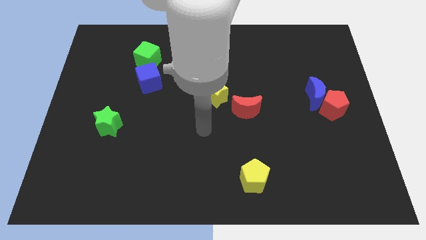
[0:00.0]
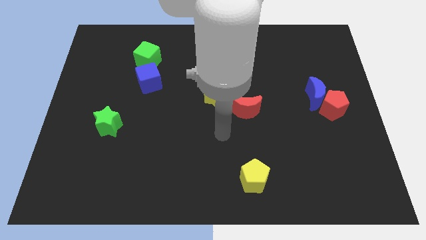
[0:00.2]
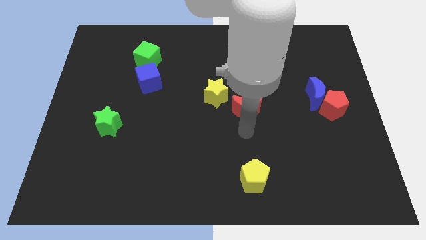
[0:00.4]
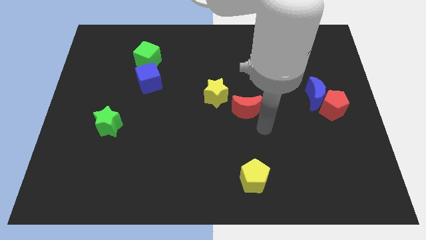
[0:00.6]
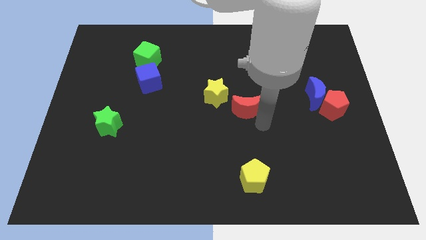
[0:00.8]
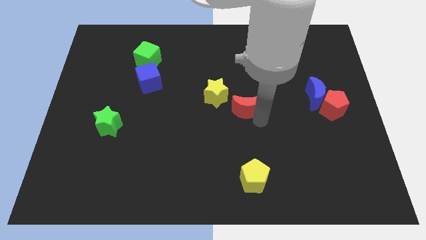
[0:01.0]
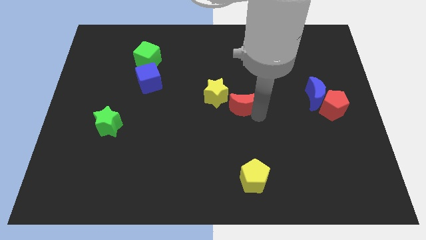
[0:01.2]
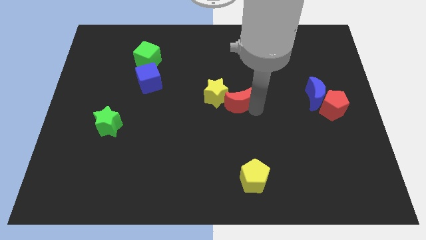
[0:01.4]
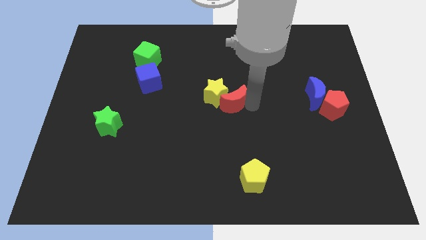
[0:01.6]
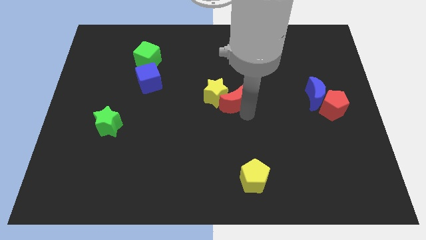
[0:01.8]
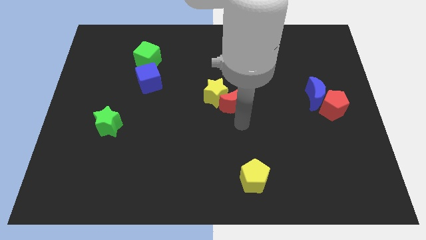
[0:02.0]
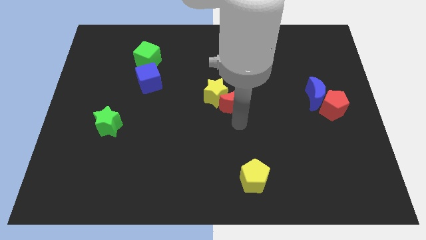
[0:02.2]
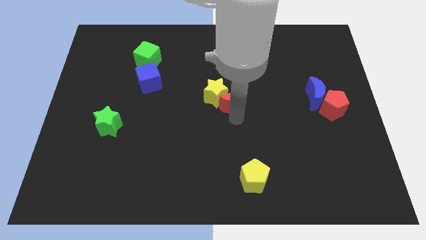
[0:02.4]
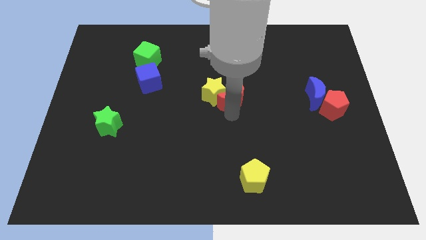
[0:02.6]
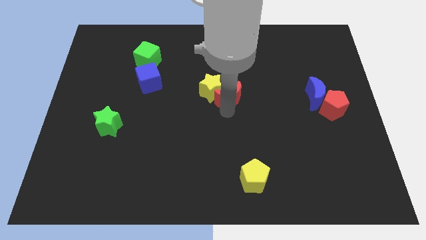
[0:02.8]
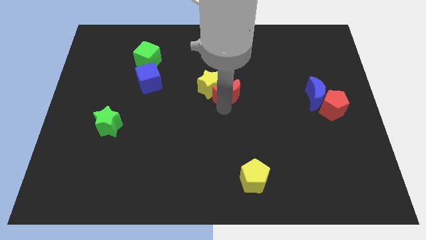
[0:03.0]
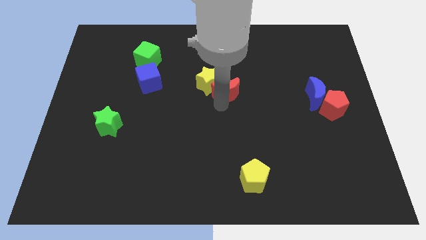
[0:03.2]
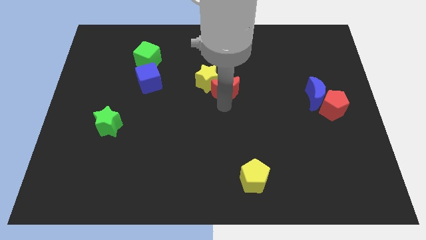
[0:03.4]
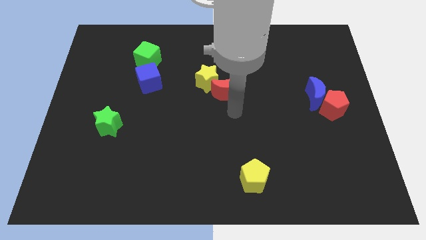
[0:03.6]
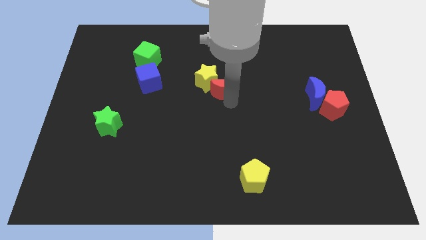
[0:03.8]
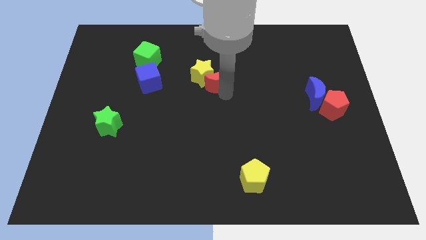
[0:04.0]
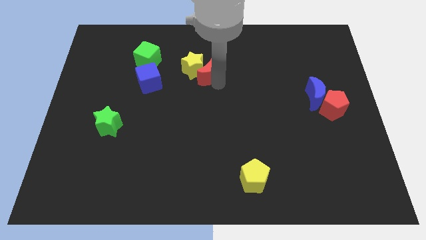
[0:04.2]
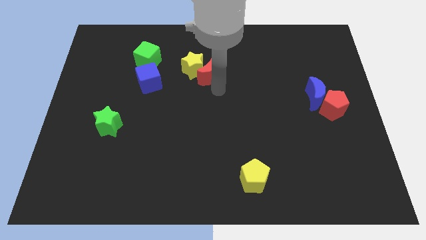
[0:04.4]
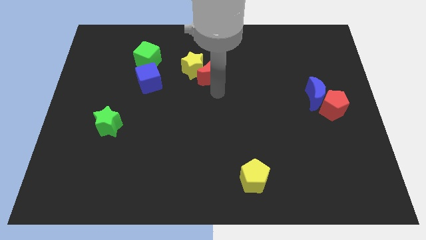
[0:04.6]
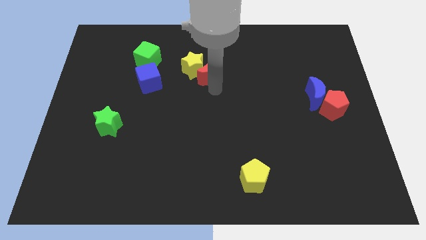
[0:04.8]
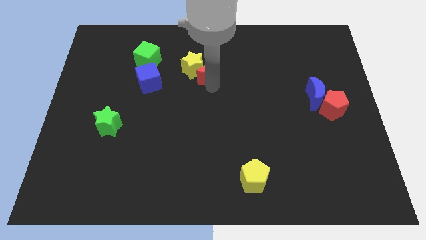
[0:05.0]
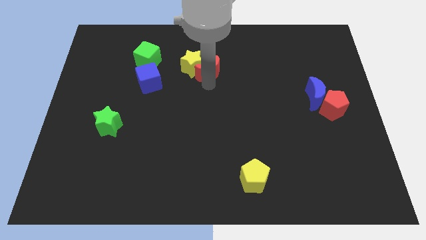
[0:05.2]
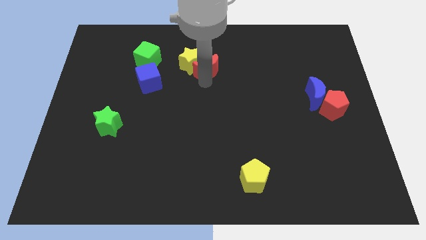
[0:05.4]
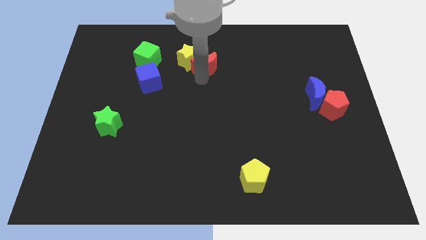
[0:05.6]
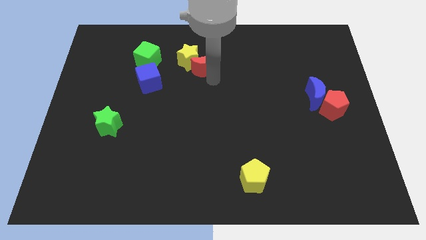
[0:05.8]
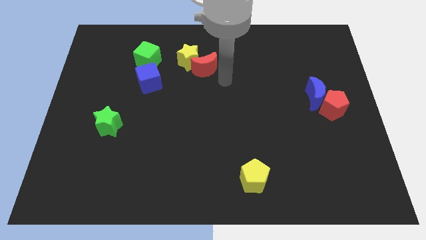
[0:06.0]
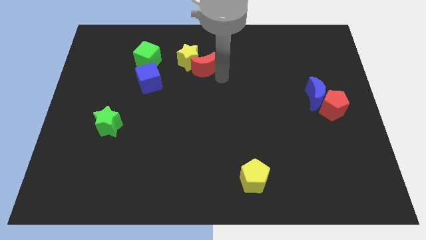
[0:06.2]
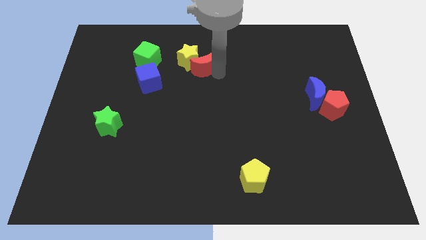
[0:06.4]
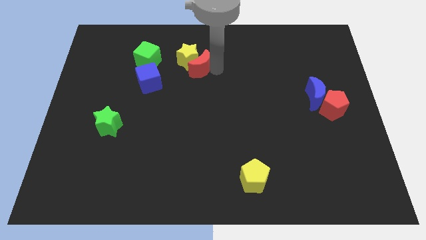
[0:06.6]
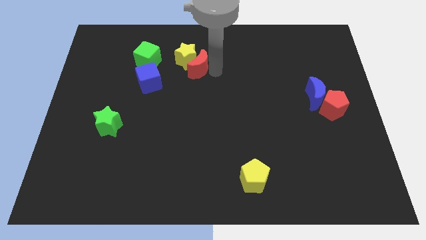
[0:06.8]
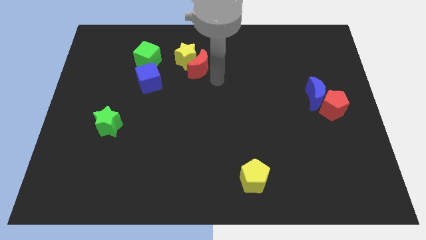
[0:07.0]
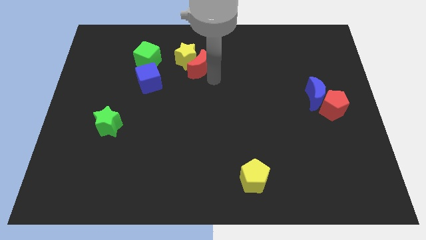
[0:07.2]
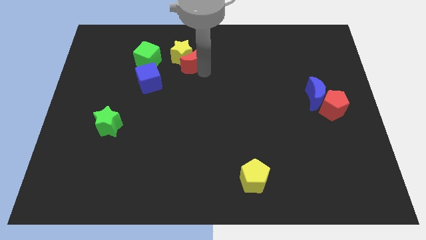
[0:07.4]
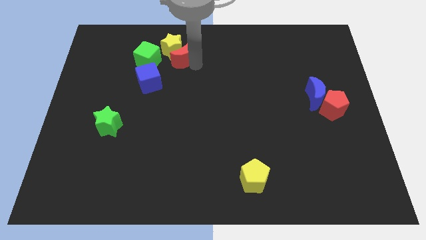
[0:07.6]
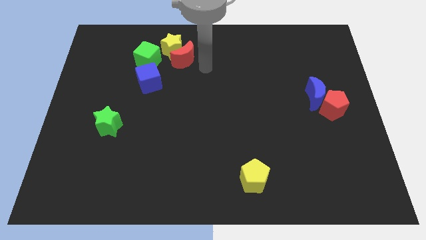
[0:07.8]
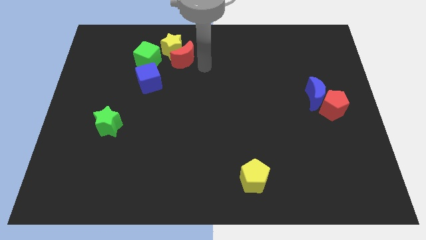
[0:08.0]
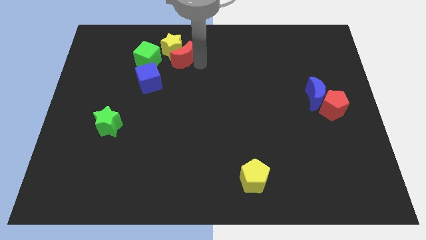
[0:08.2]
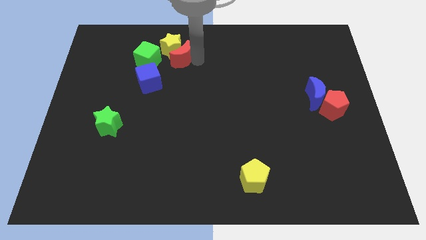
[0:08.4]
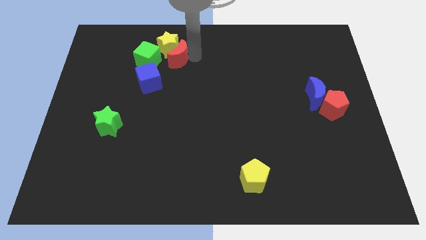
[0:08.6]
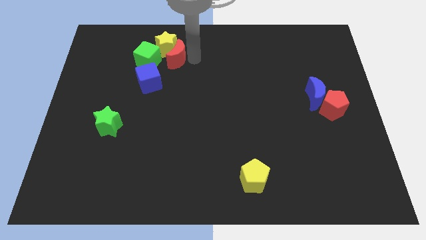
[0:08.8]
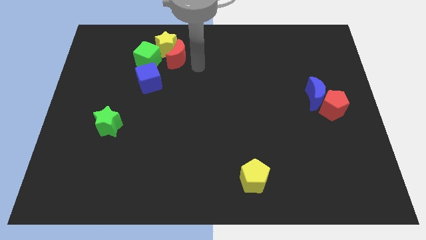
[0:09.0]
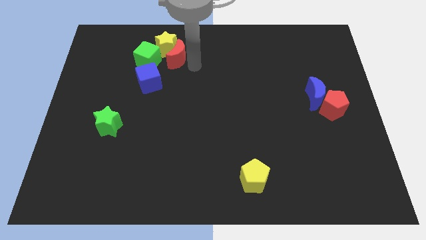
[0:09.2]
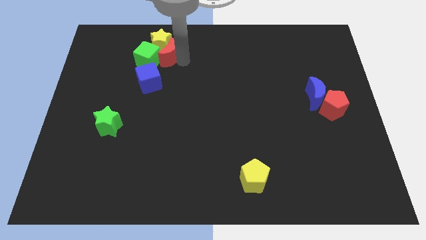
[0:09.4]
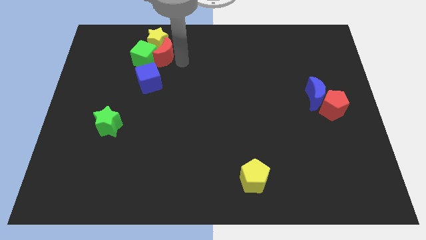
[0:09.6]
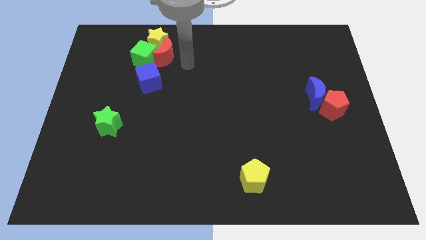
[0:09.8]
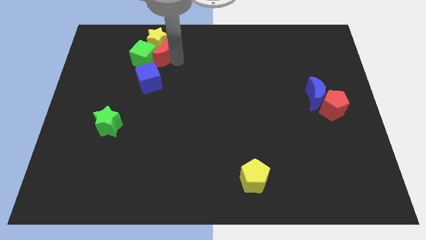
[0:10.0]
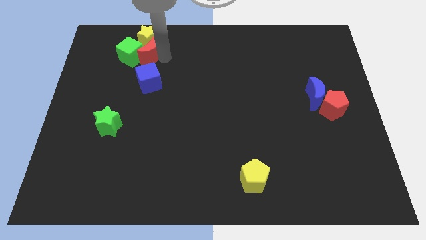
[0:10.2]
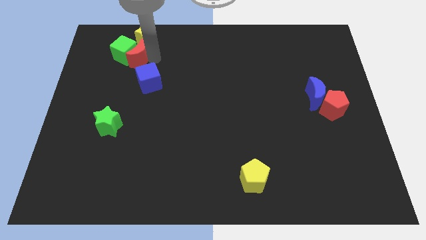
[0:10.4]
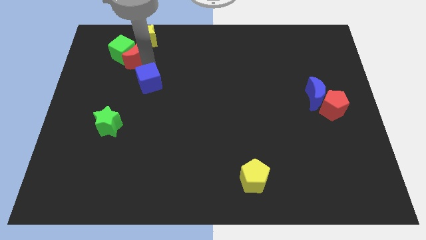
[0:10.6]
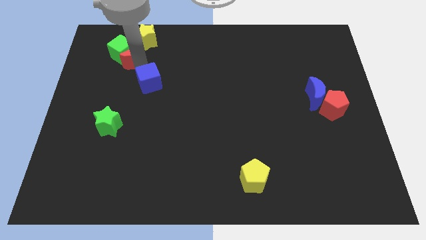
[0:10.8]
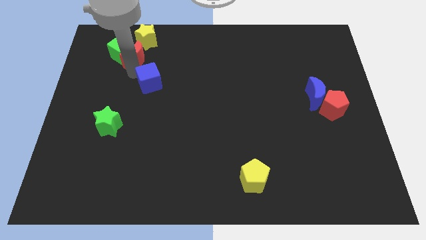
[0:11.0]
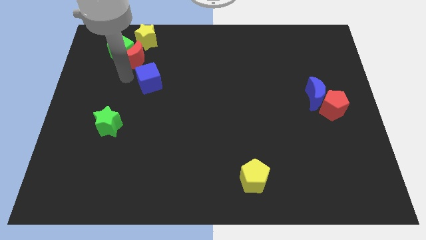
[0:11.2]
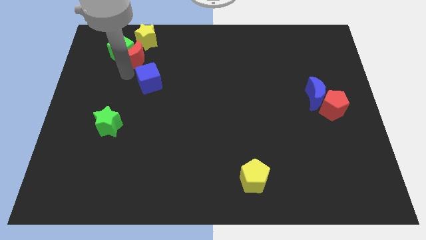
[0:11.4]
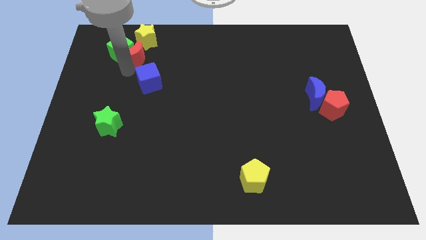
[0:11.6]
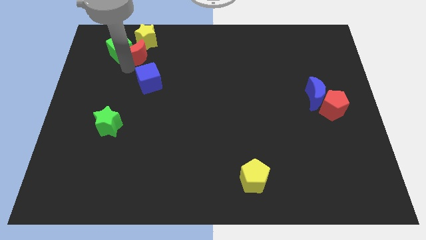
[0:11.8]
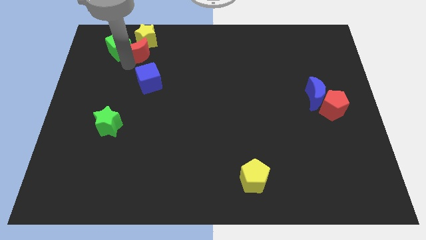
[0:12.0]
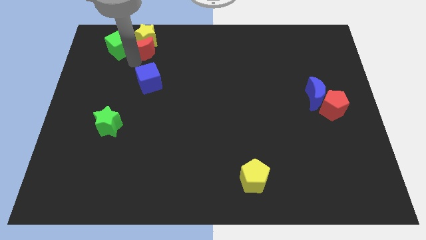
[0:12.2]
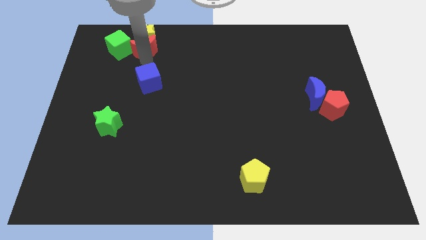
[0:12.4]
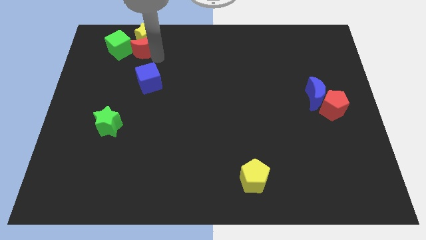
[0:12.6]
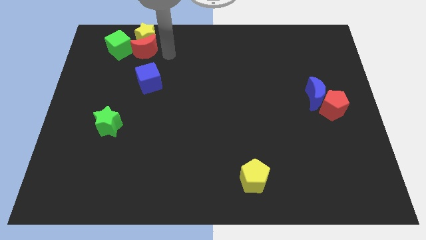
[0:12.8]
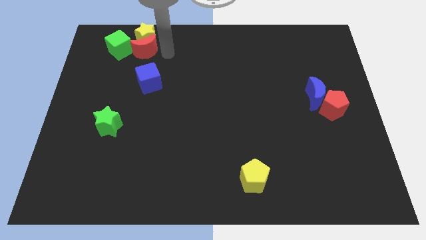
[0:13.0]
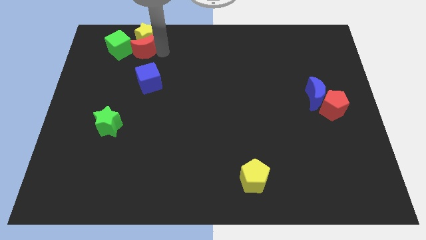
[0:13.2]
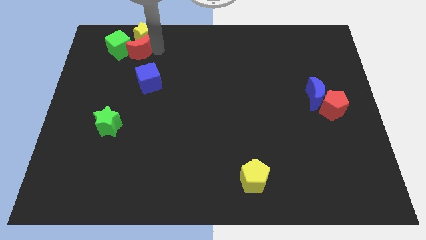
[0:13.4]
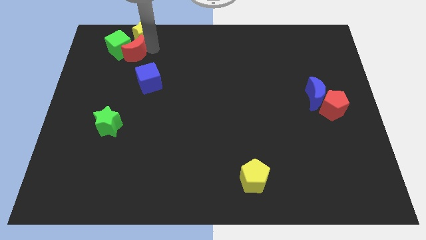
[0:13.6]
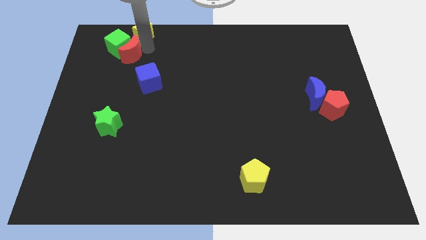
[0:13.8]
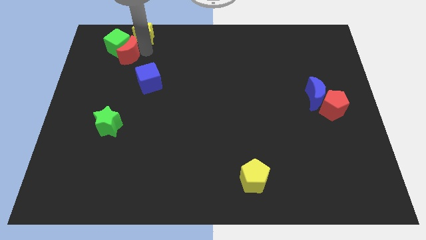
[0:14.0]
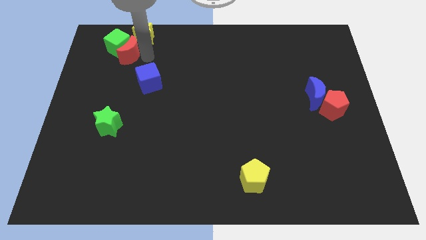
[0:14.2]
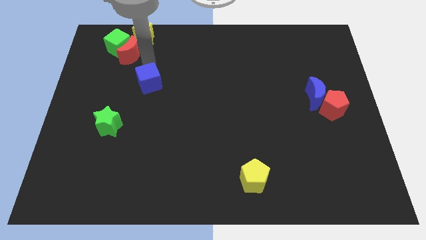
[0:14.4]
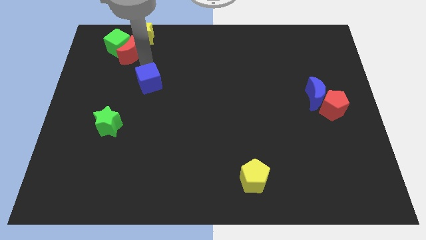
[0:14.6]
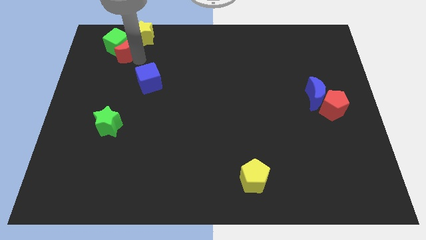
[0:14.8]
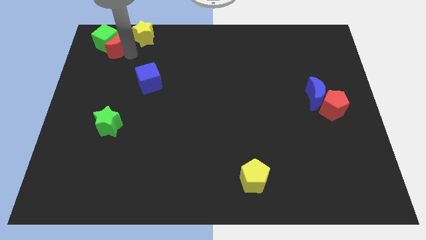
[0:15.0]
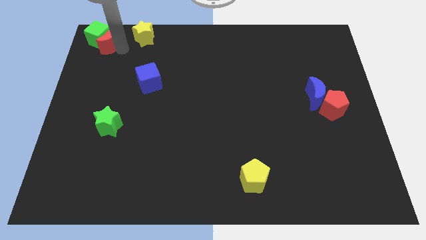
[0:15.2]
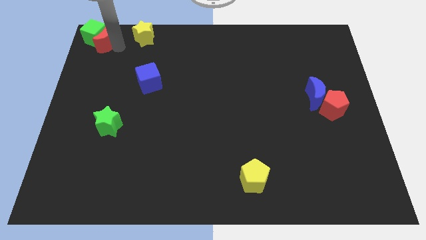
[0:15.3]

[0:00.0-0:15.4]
slide the red moon to the top left
